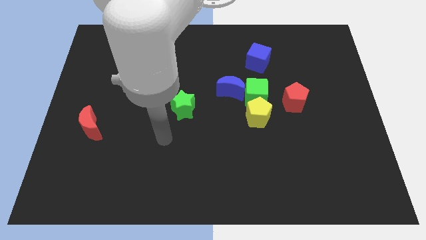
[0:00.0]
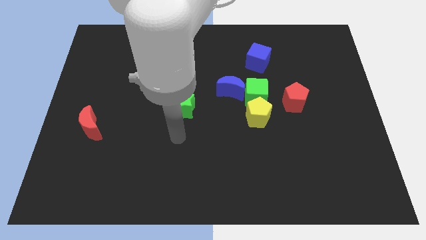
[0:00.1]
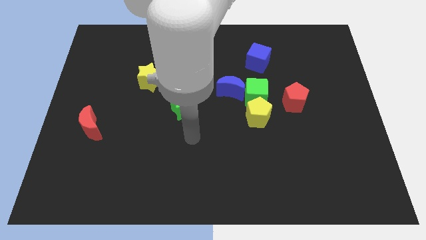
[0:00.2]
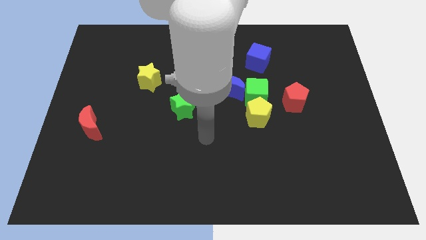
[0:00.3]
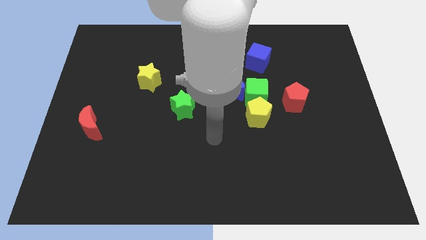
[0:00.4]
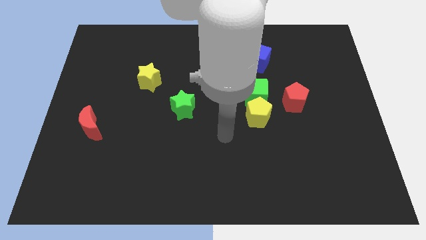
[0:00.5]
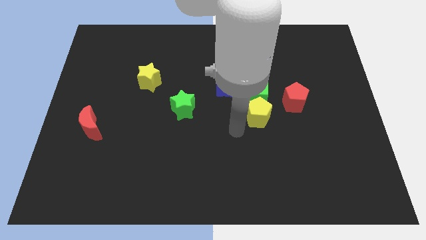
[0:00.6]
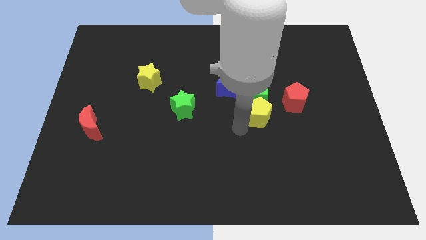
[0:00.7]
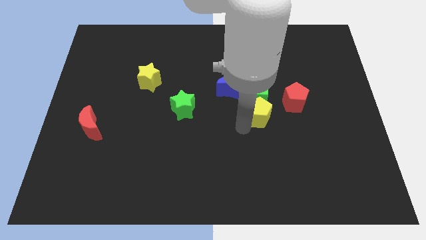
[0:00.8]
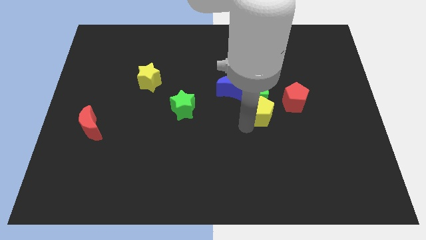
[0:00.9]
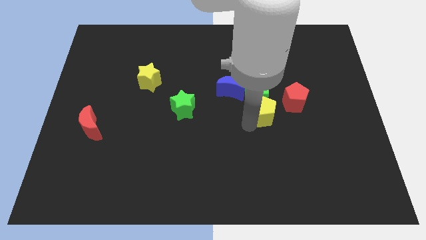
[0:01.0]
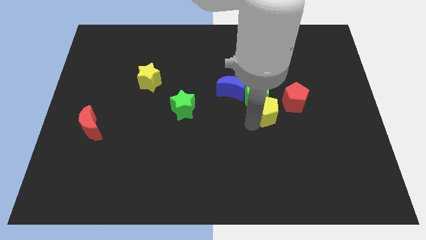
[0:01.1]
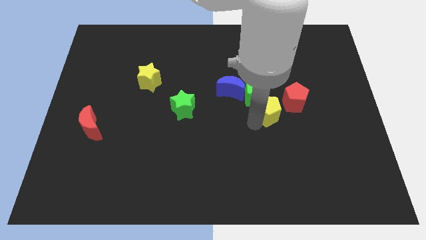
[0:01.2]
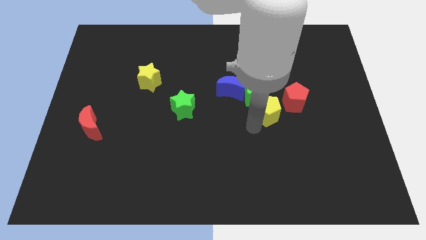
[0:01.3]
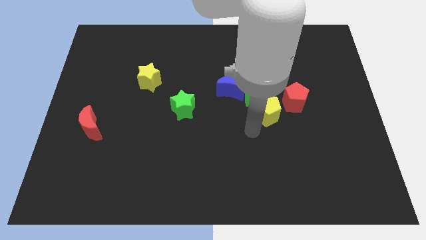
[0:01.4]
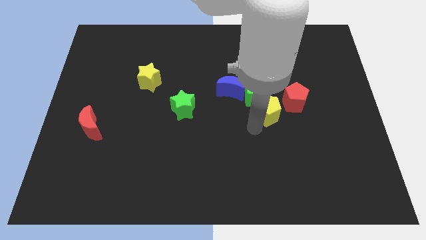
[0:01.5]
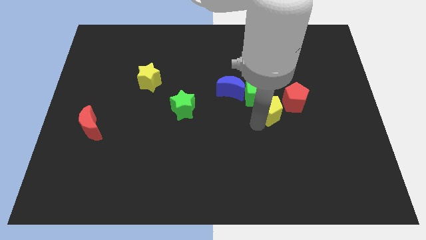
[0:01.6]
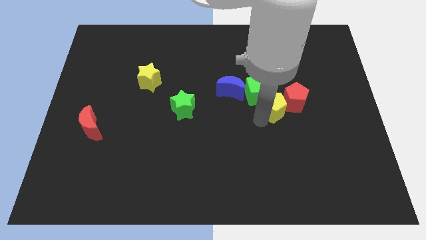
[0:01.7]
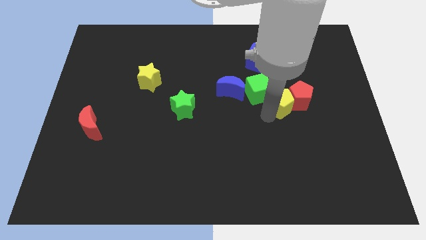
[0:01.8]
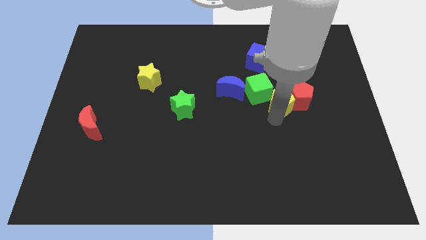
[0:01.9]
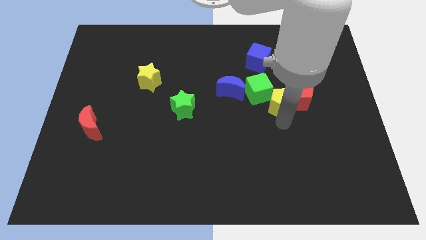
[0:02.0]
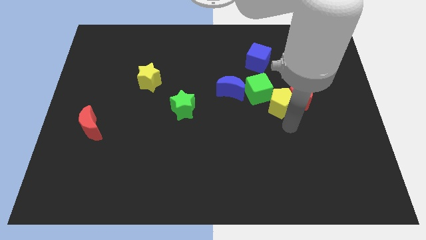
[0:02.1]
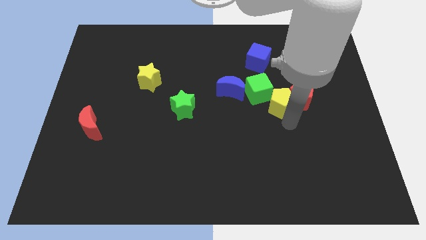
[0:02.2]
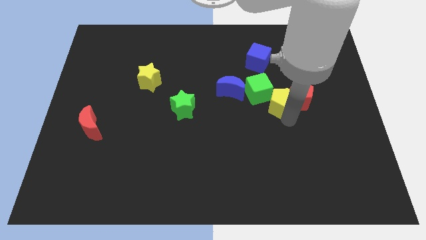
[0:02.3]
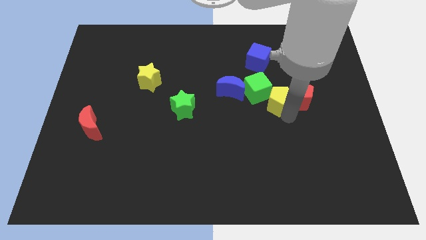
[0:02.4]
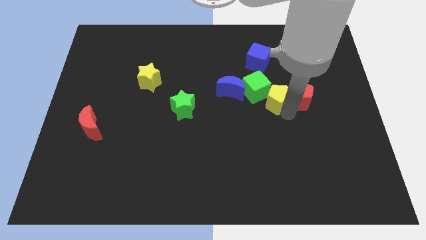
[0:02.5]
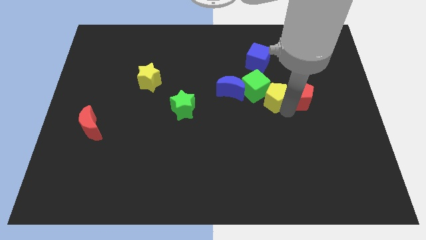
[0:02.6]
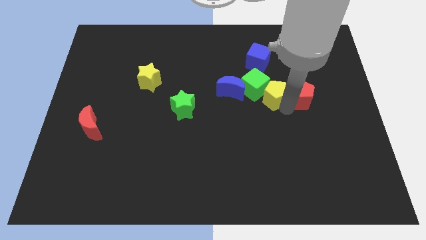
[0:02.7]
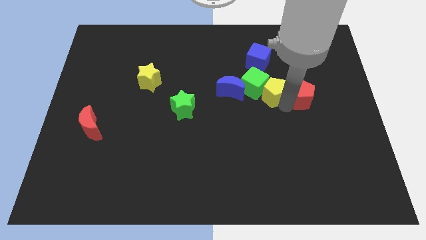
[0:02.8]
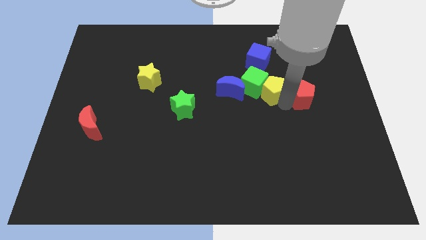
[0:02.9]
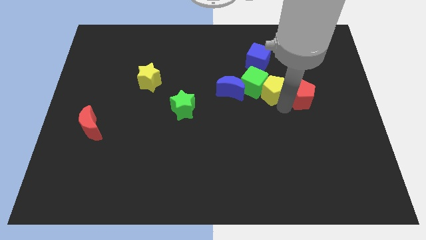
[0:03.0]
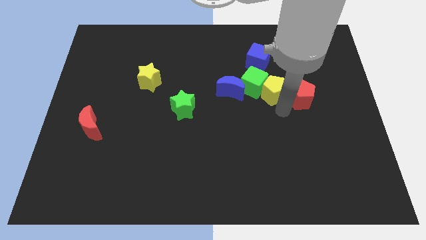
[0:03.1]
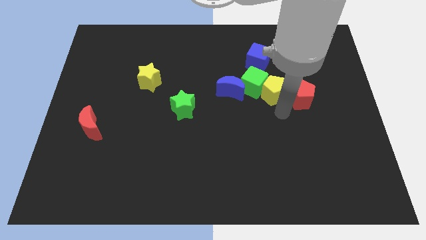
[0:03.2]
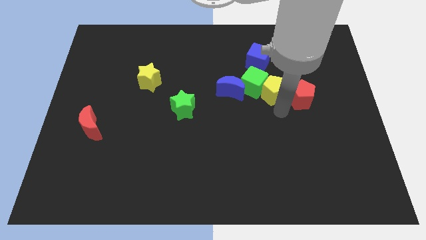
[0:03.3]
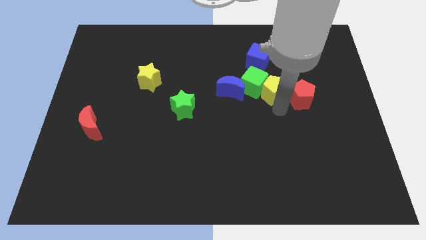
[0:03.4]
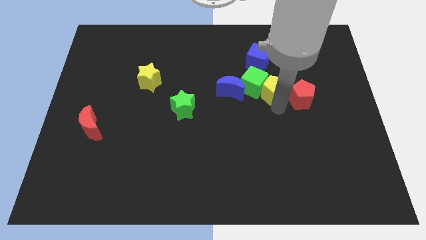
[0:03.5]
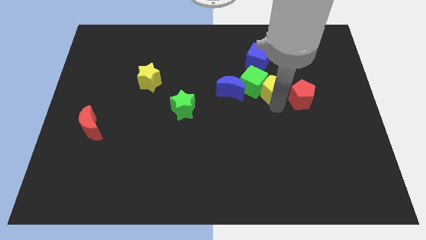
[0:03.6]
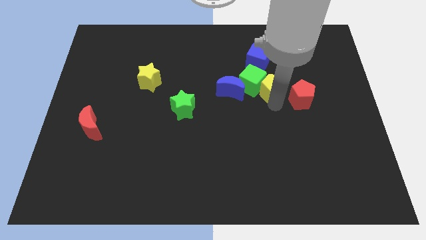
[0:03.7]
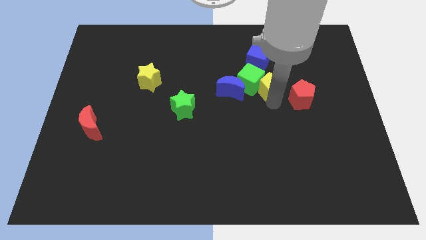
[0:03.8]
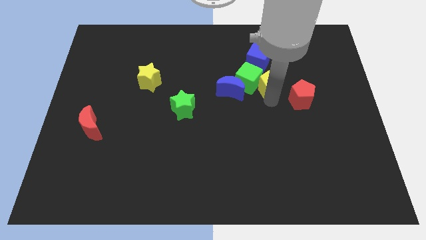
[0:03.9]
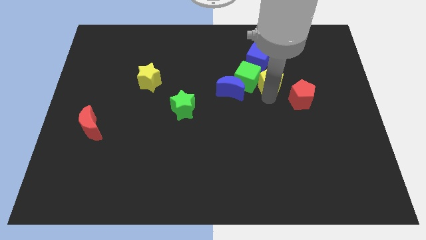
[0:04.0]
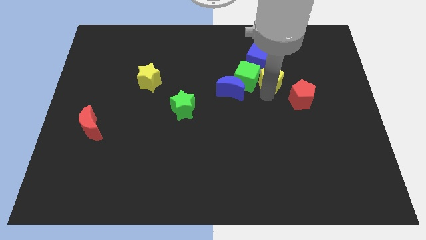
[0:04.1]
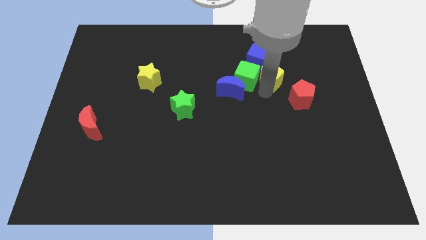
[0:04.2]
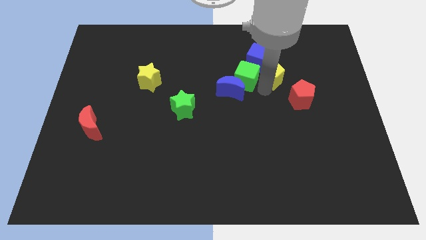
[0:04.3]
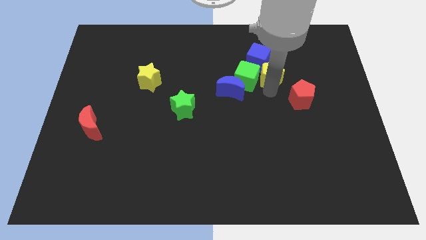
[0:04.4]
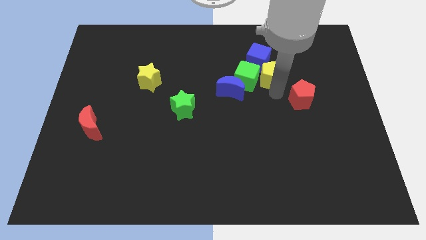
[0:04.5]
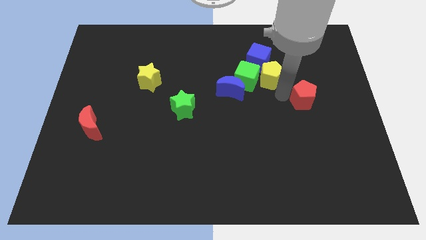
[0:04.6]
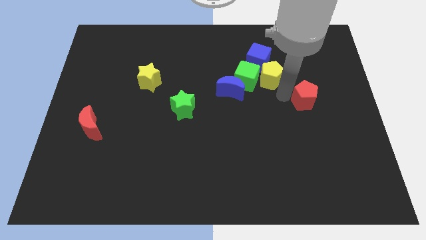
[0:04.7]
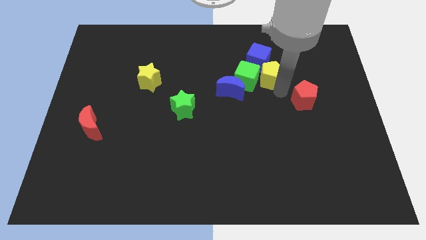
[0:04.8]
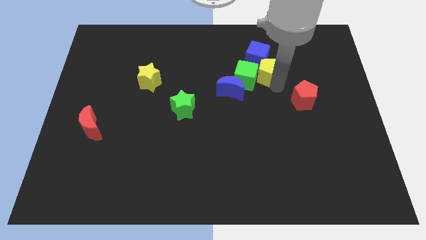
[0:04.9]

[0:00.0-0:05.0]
slide the yellow pentagon towards the blue cube

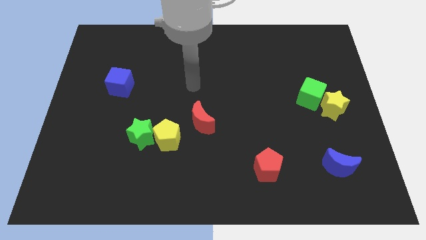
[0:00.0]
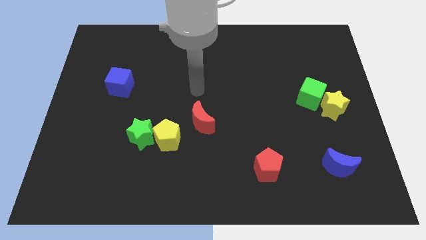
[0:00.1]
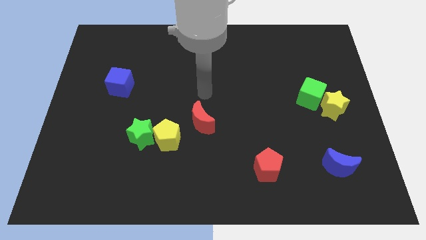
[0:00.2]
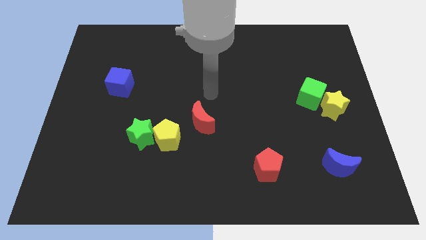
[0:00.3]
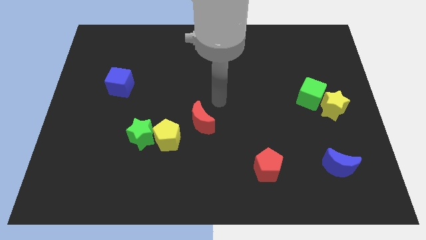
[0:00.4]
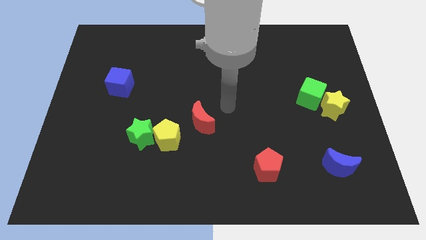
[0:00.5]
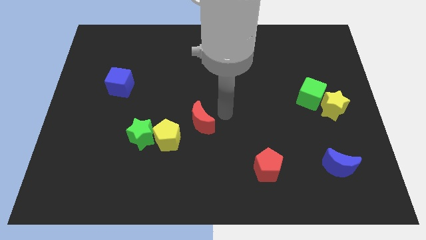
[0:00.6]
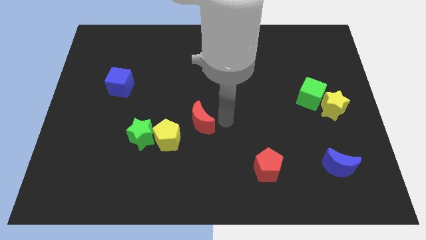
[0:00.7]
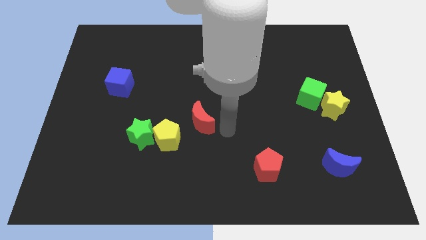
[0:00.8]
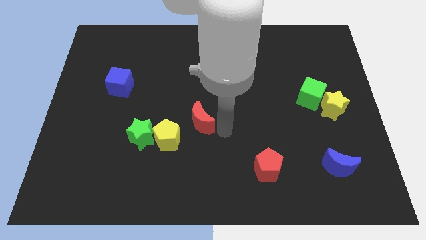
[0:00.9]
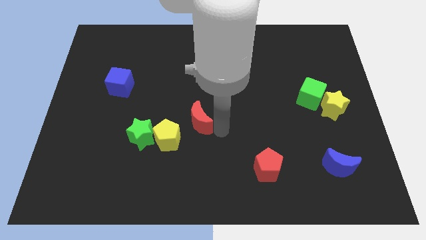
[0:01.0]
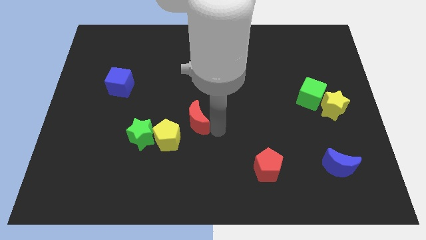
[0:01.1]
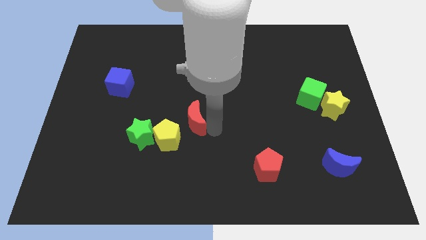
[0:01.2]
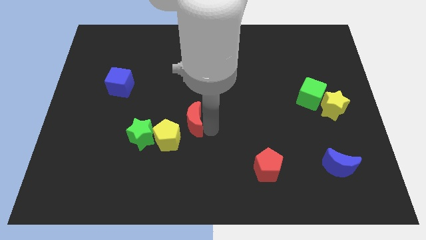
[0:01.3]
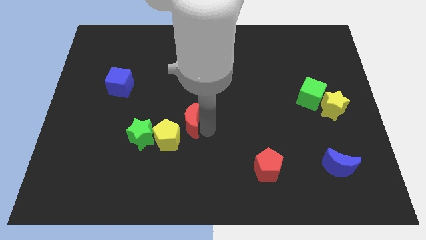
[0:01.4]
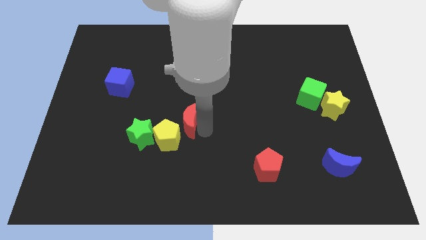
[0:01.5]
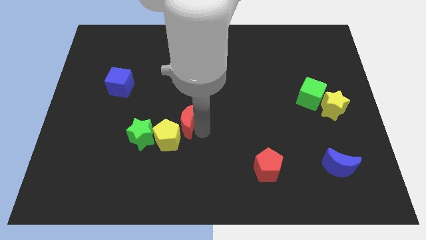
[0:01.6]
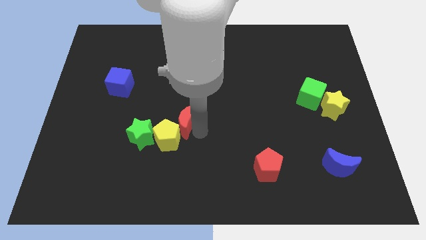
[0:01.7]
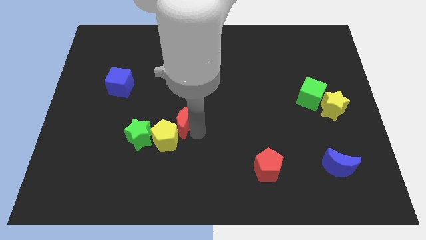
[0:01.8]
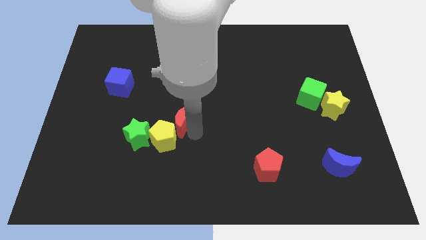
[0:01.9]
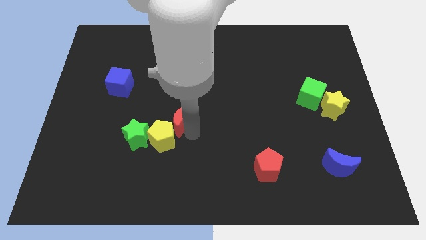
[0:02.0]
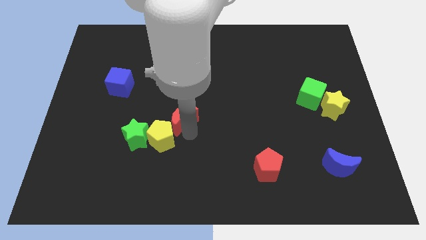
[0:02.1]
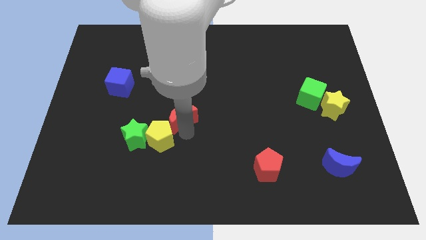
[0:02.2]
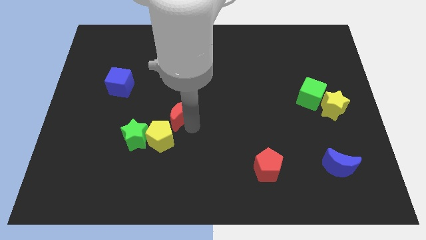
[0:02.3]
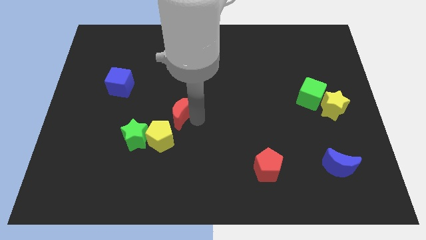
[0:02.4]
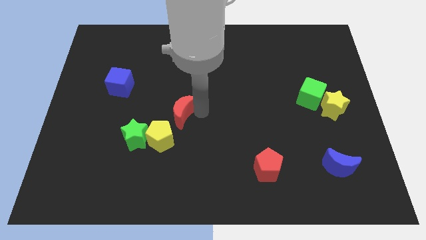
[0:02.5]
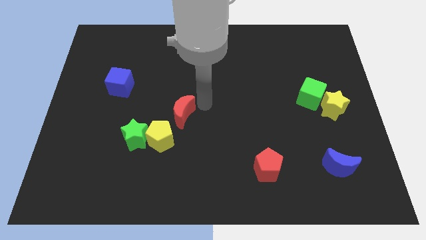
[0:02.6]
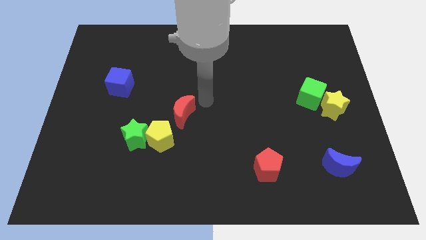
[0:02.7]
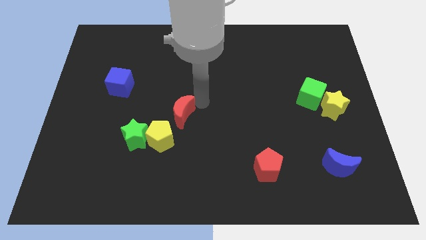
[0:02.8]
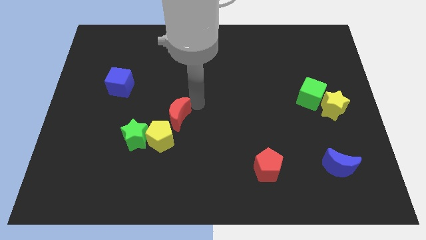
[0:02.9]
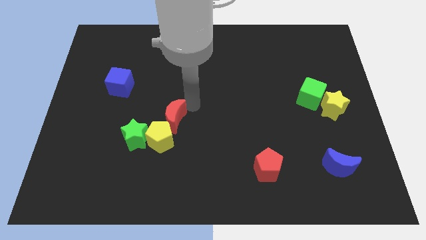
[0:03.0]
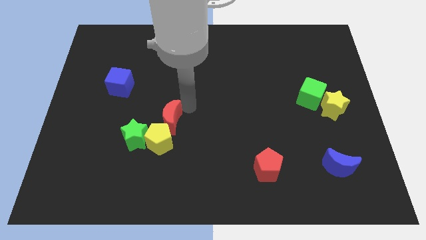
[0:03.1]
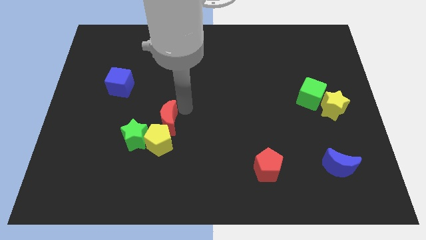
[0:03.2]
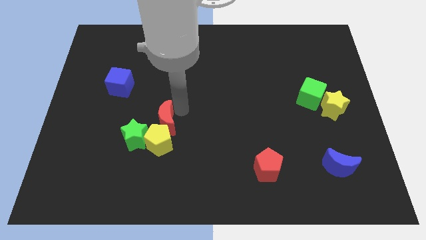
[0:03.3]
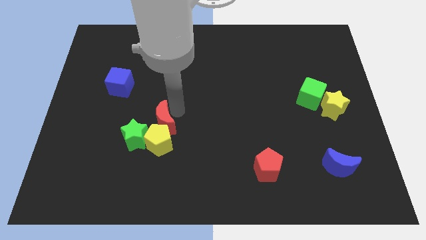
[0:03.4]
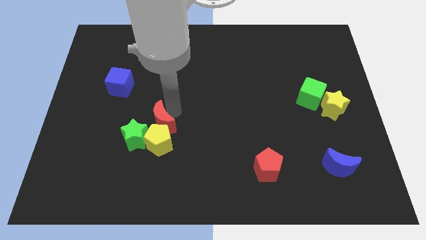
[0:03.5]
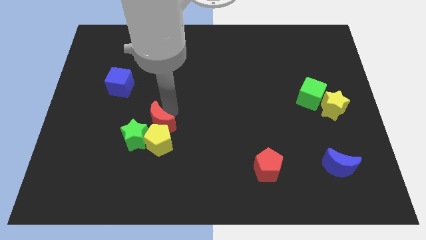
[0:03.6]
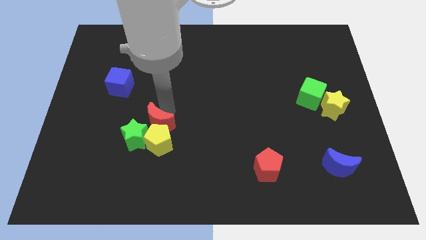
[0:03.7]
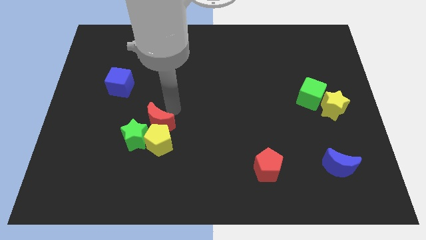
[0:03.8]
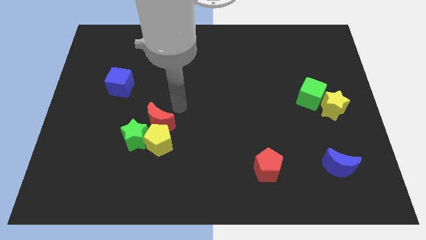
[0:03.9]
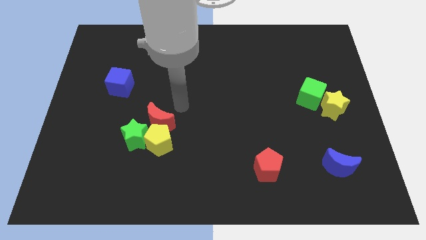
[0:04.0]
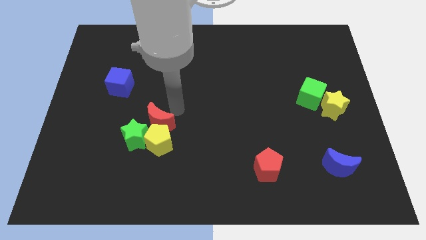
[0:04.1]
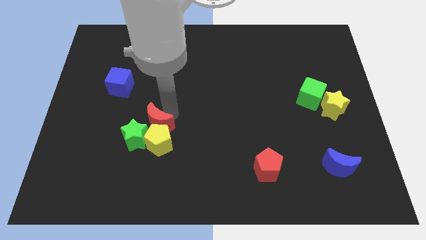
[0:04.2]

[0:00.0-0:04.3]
slide the red moon towards the green star
